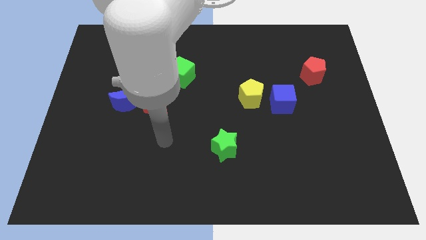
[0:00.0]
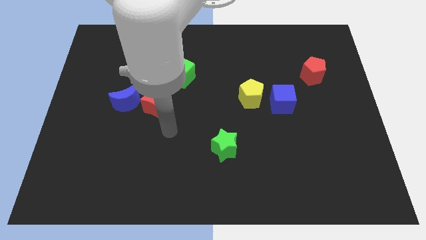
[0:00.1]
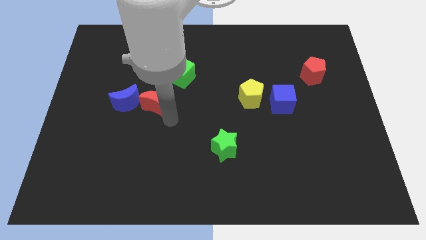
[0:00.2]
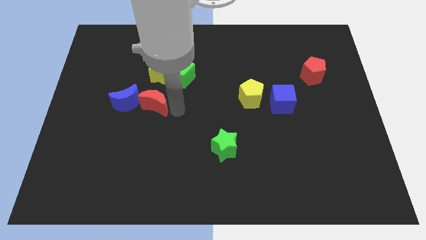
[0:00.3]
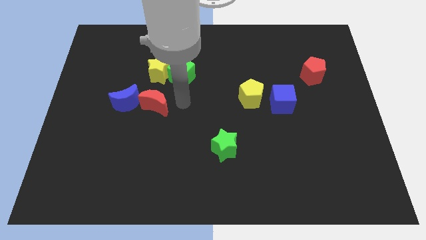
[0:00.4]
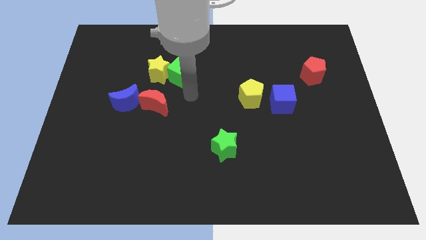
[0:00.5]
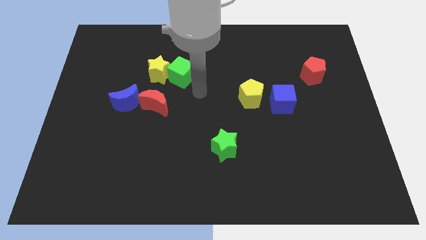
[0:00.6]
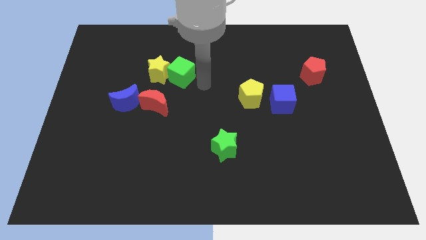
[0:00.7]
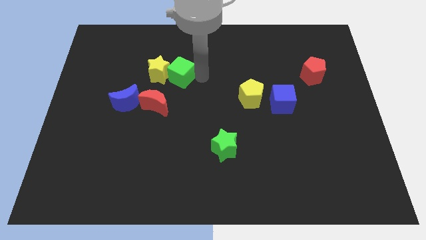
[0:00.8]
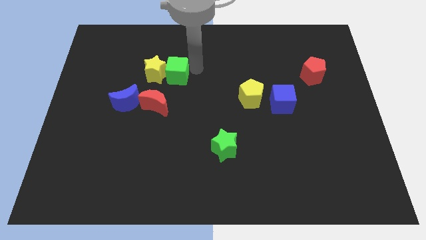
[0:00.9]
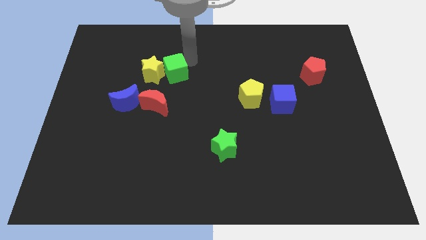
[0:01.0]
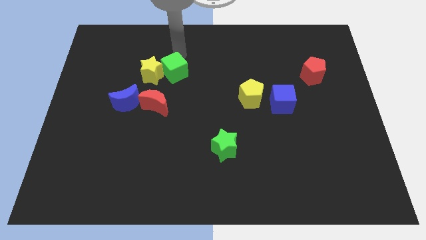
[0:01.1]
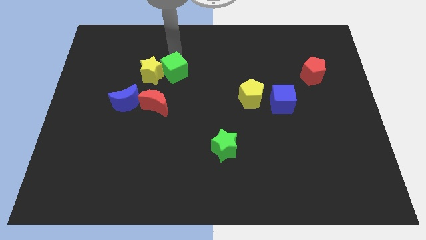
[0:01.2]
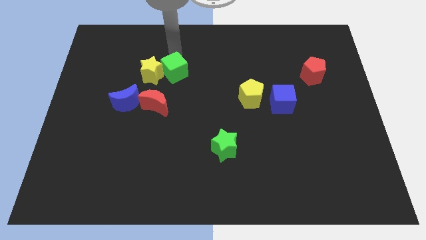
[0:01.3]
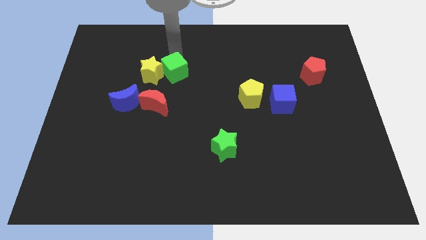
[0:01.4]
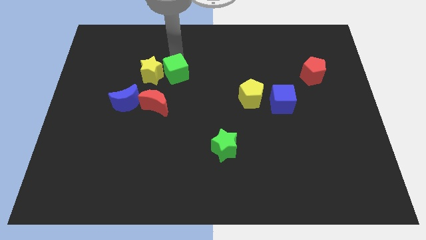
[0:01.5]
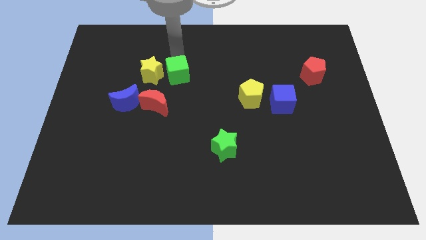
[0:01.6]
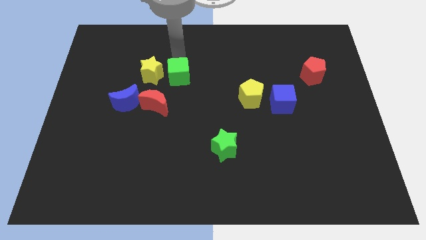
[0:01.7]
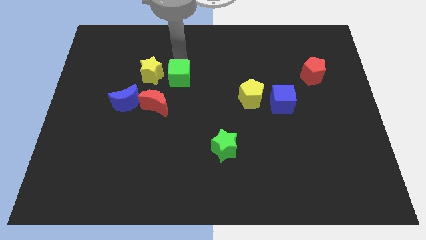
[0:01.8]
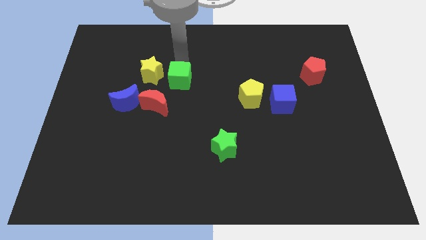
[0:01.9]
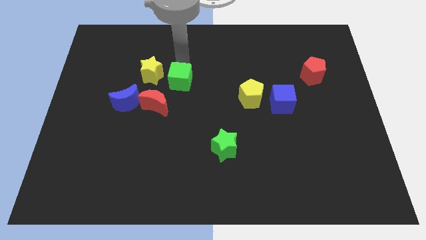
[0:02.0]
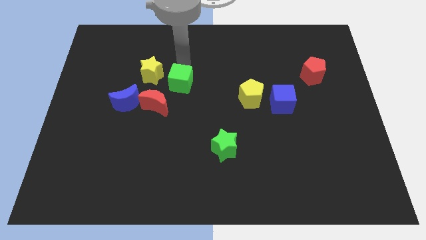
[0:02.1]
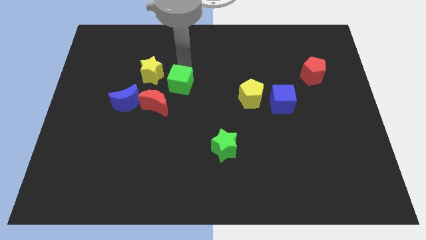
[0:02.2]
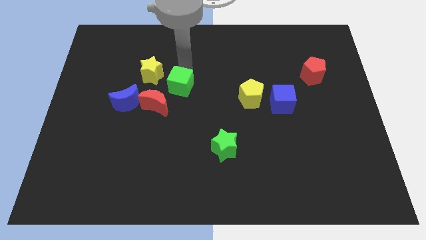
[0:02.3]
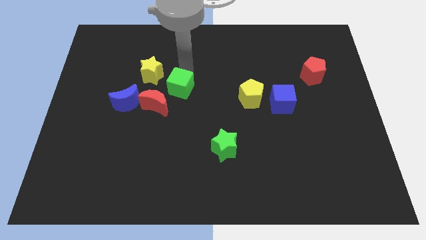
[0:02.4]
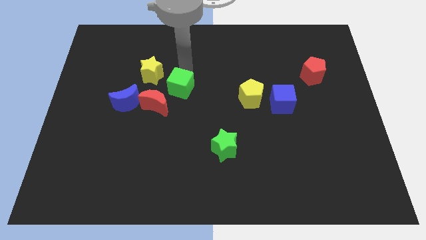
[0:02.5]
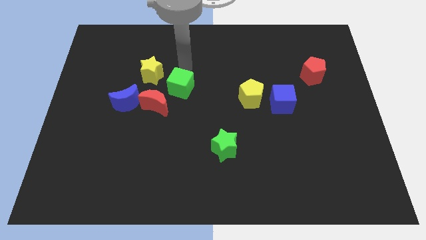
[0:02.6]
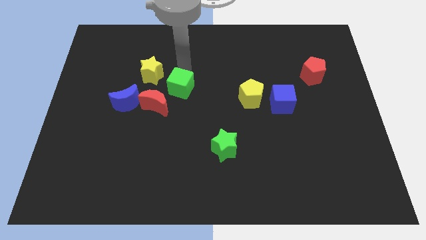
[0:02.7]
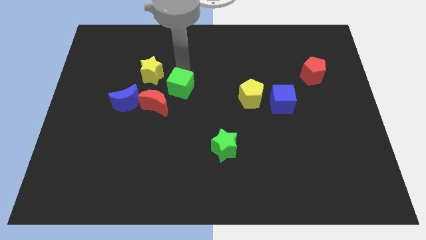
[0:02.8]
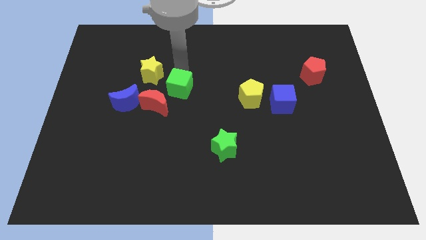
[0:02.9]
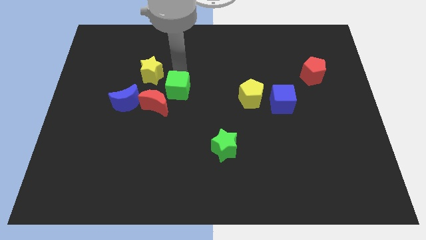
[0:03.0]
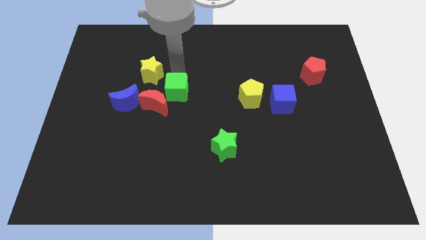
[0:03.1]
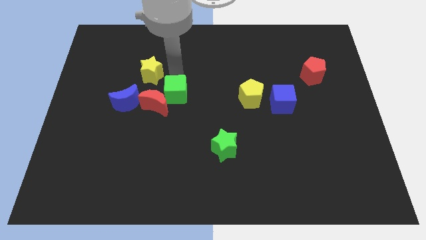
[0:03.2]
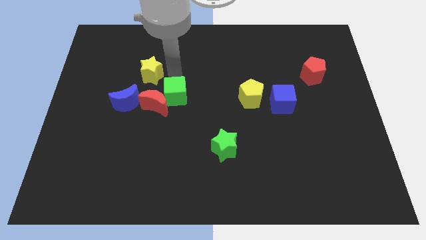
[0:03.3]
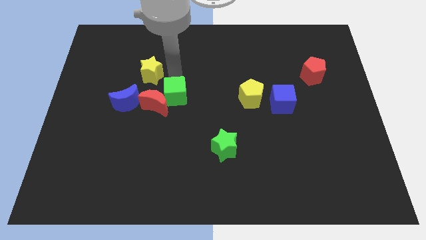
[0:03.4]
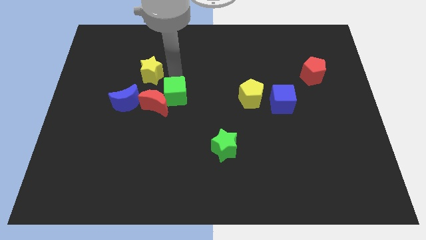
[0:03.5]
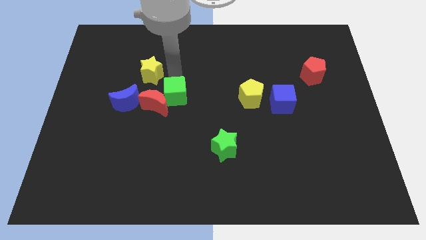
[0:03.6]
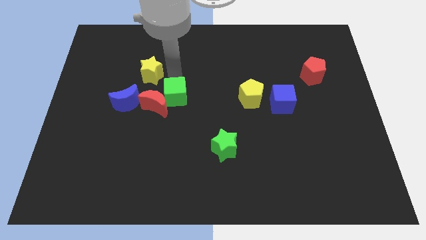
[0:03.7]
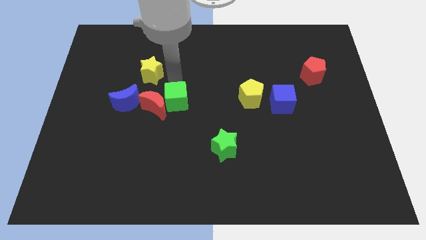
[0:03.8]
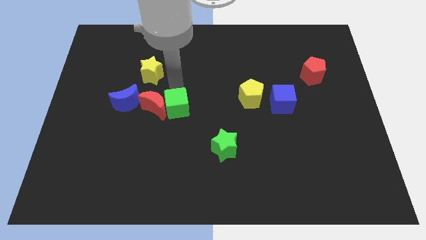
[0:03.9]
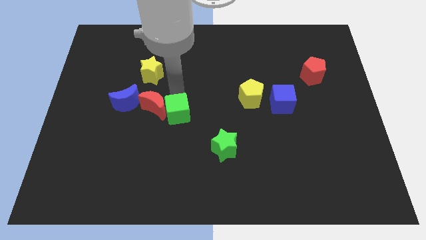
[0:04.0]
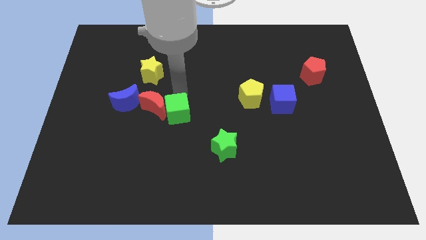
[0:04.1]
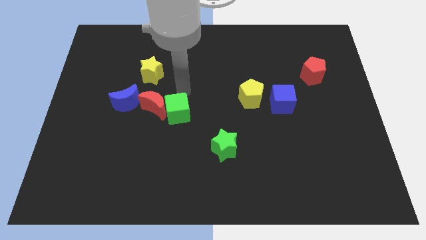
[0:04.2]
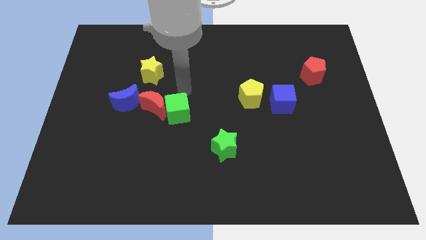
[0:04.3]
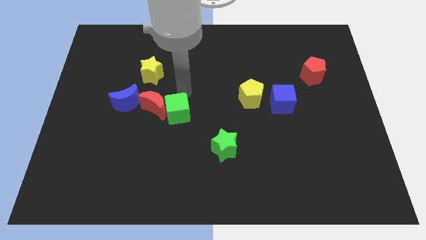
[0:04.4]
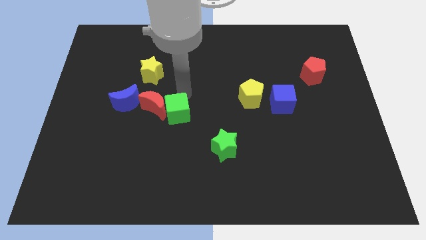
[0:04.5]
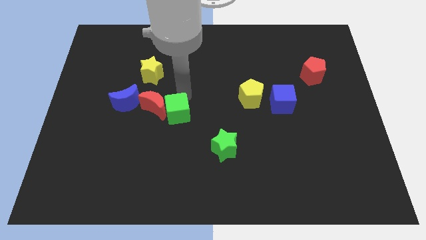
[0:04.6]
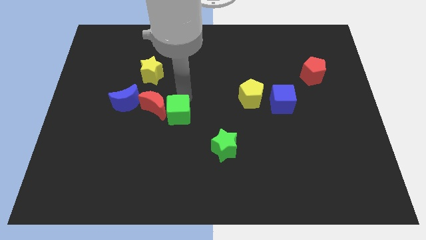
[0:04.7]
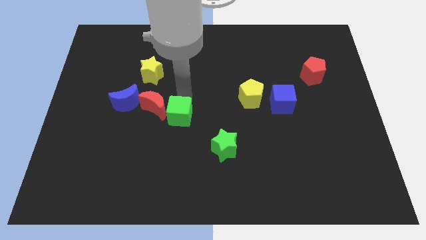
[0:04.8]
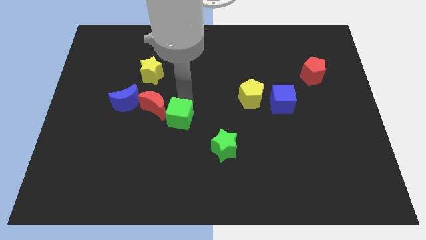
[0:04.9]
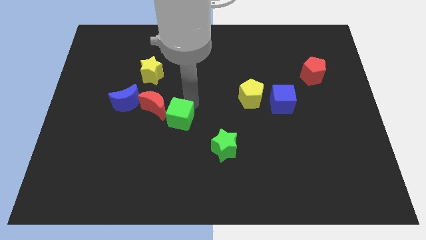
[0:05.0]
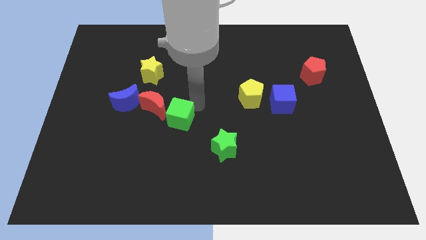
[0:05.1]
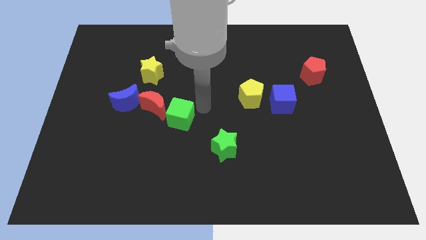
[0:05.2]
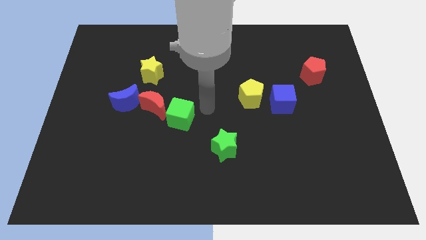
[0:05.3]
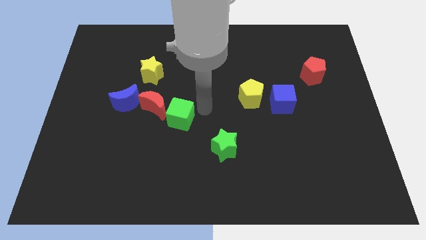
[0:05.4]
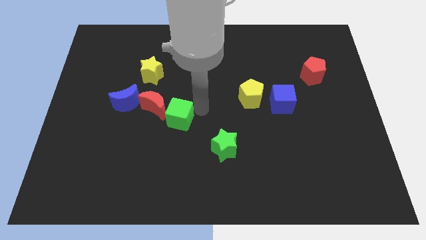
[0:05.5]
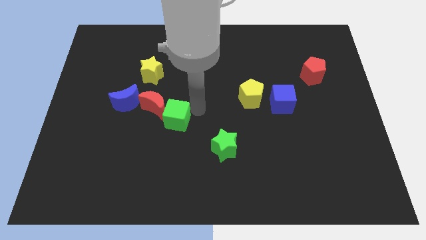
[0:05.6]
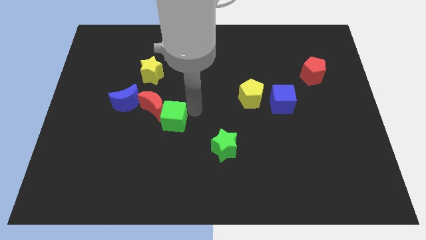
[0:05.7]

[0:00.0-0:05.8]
slightly move the green cube down and left

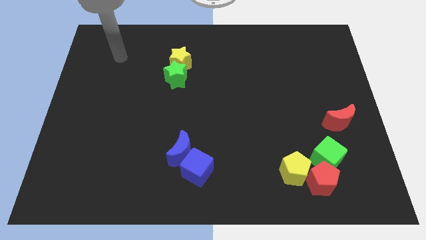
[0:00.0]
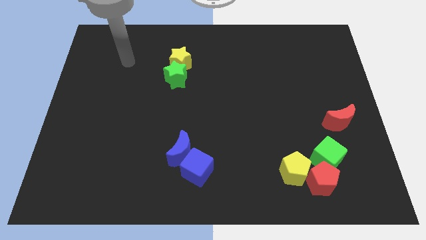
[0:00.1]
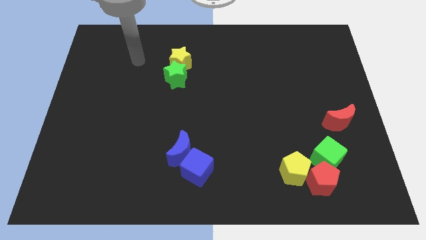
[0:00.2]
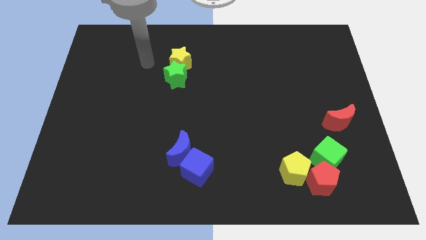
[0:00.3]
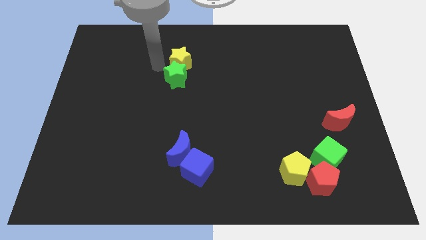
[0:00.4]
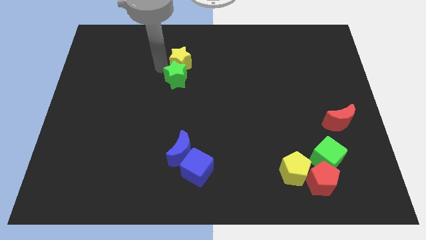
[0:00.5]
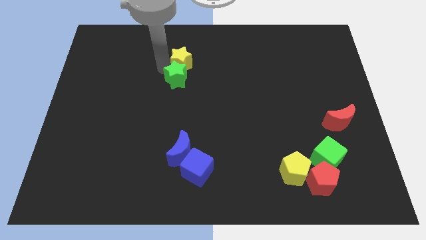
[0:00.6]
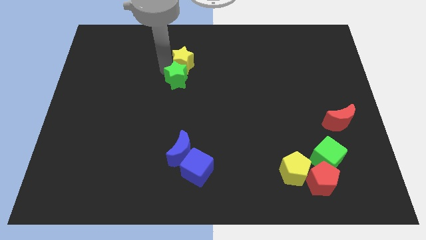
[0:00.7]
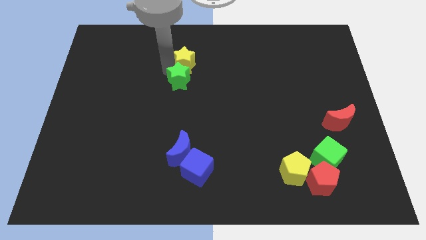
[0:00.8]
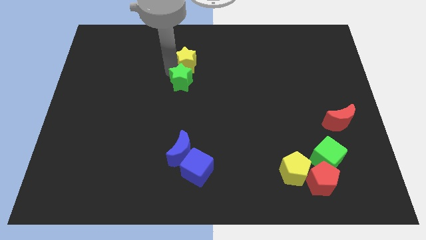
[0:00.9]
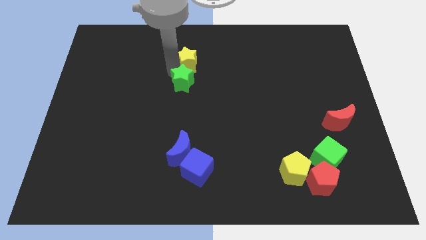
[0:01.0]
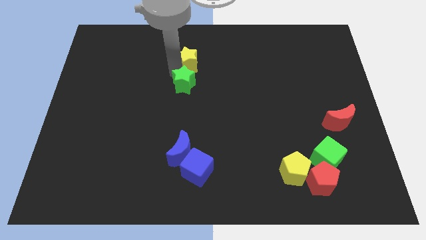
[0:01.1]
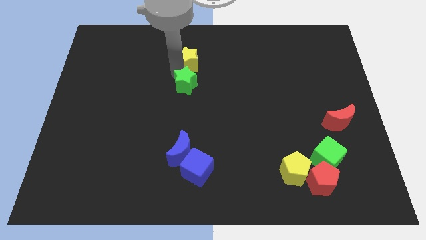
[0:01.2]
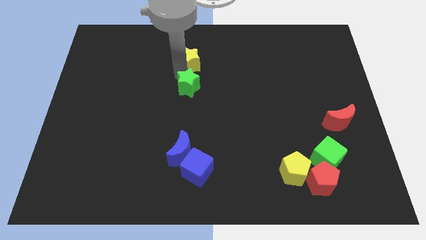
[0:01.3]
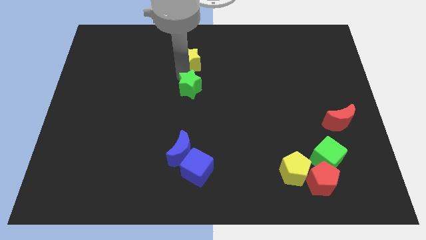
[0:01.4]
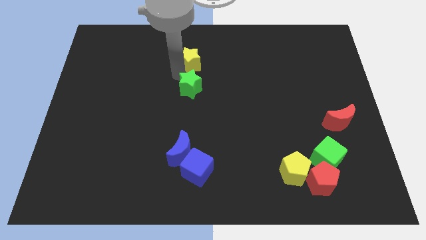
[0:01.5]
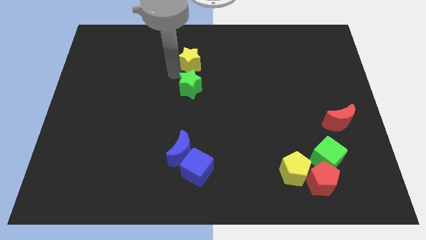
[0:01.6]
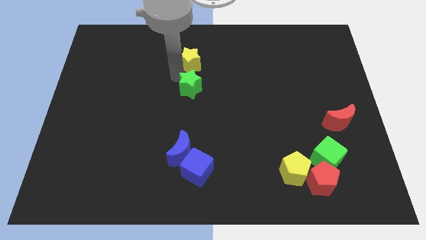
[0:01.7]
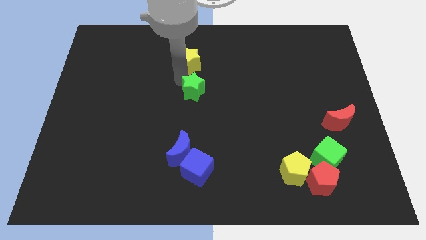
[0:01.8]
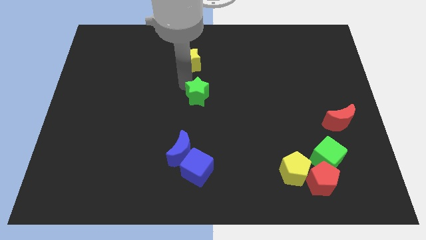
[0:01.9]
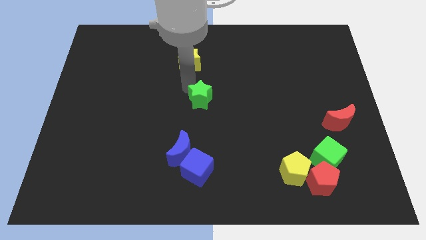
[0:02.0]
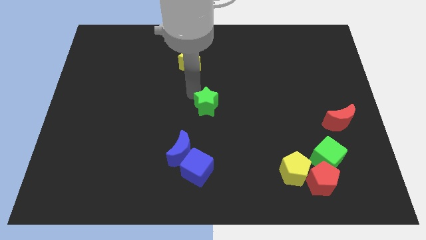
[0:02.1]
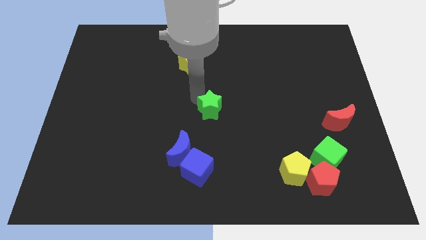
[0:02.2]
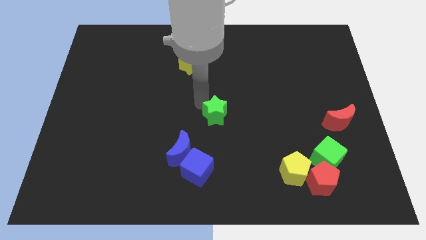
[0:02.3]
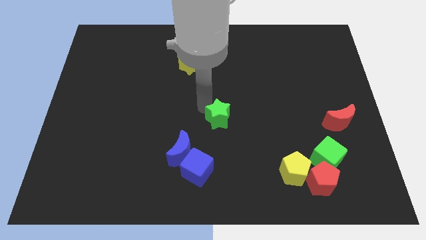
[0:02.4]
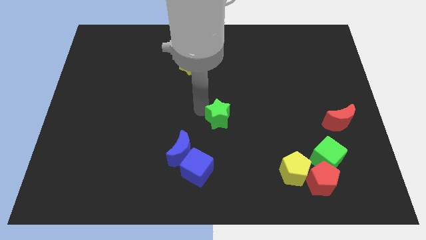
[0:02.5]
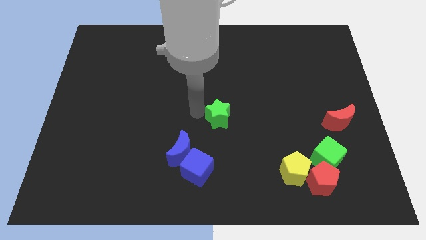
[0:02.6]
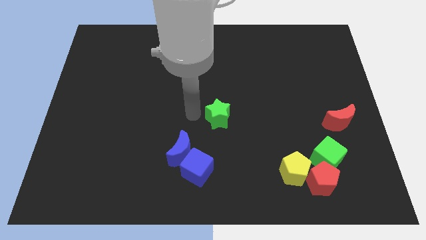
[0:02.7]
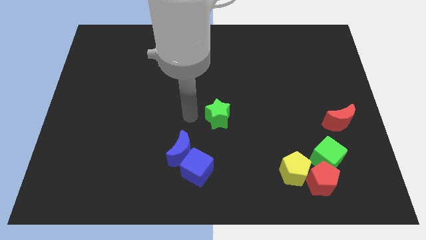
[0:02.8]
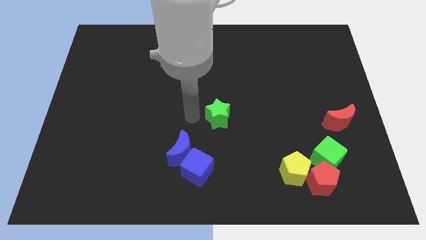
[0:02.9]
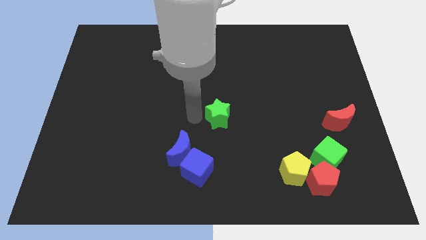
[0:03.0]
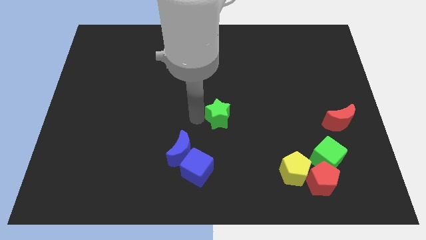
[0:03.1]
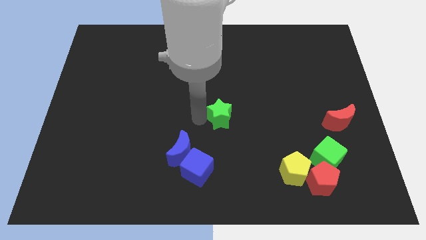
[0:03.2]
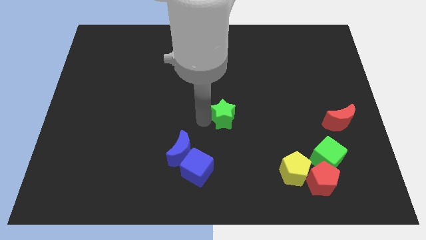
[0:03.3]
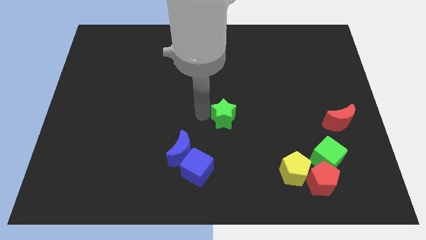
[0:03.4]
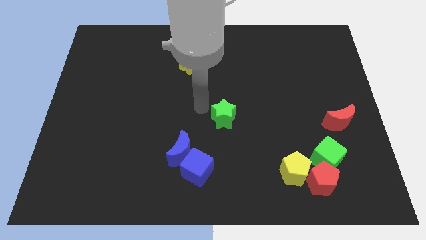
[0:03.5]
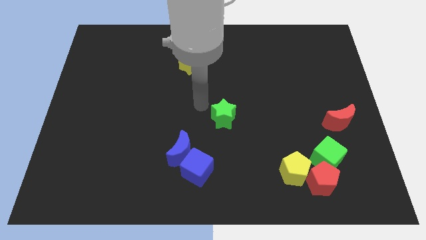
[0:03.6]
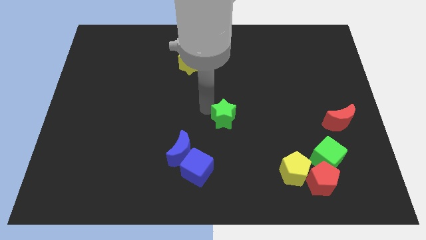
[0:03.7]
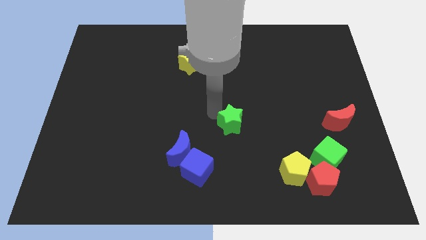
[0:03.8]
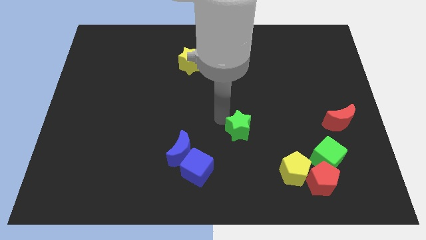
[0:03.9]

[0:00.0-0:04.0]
slide the green star downwards and to the right diagonally
